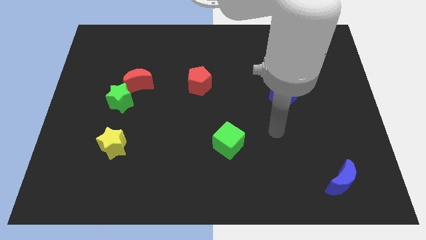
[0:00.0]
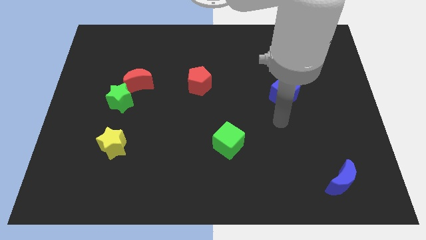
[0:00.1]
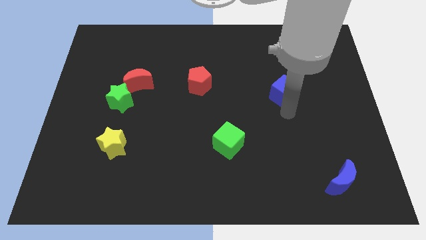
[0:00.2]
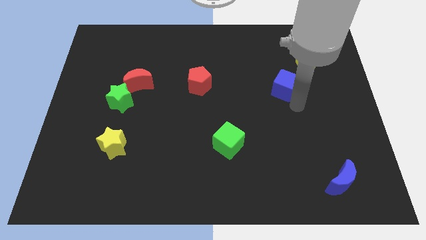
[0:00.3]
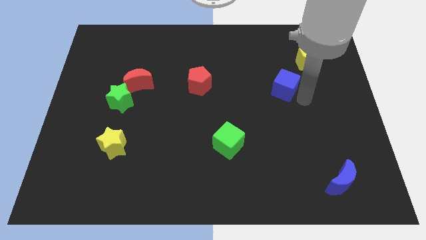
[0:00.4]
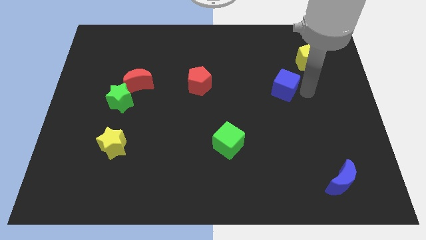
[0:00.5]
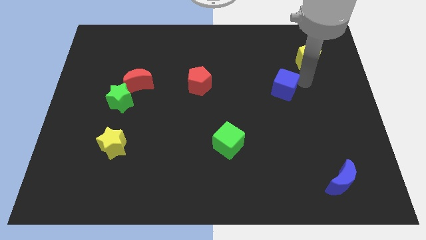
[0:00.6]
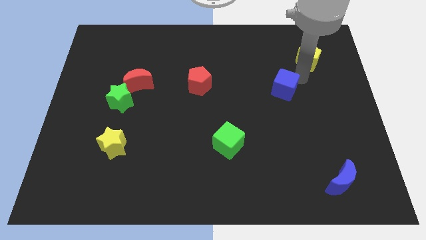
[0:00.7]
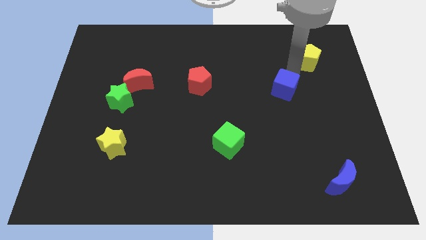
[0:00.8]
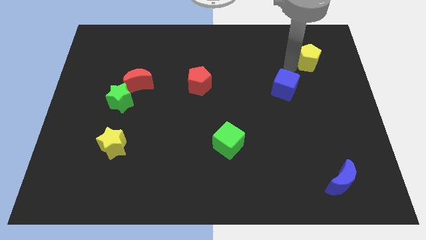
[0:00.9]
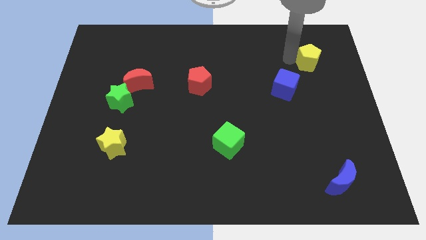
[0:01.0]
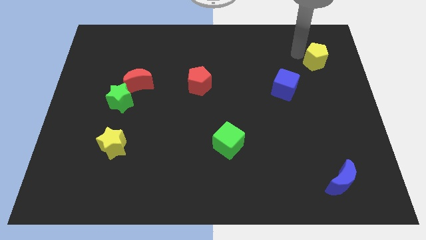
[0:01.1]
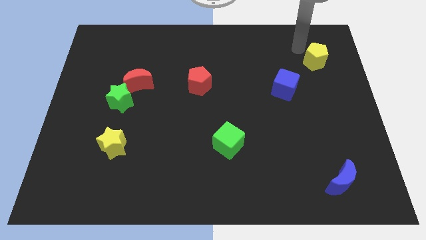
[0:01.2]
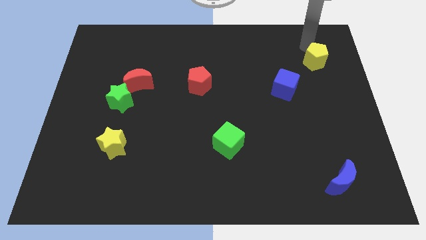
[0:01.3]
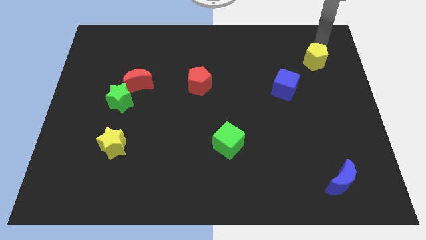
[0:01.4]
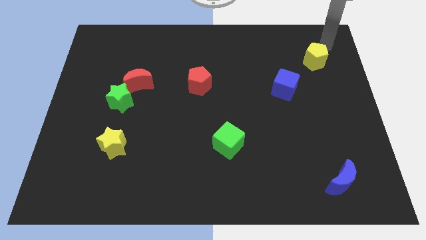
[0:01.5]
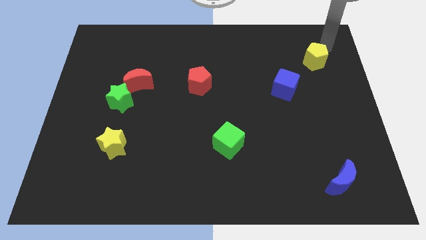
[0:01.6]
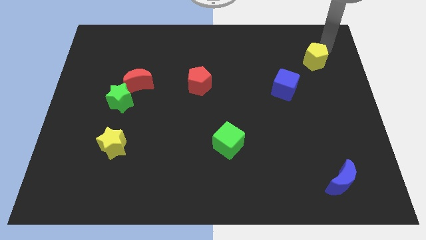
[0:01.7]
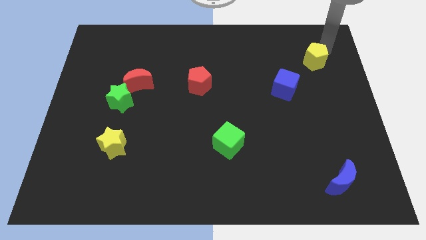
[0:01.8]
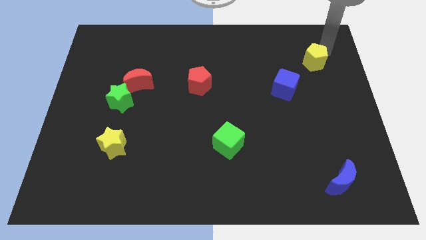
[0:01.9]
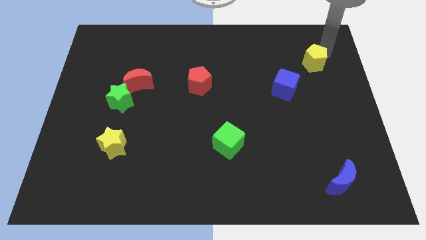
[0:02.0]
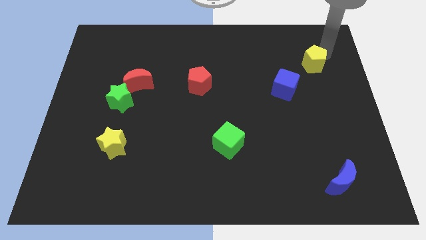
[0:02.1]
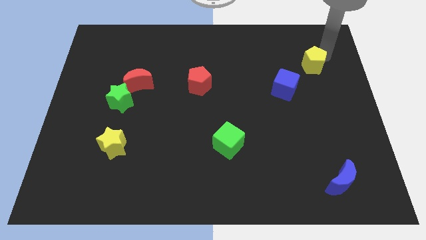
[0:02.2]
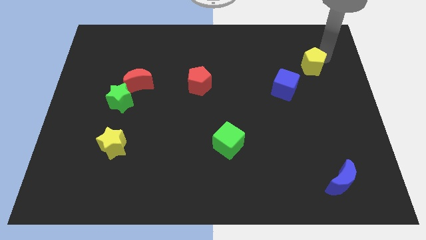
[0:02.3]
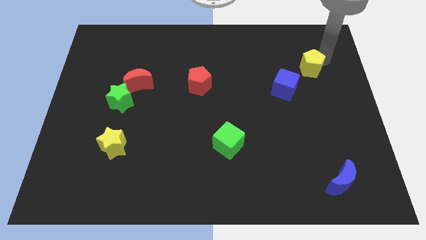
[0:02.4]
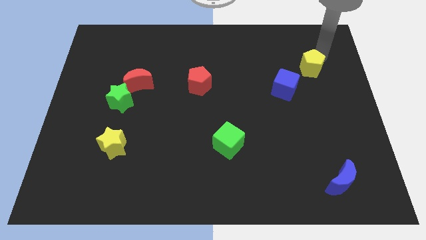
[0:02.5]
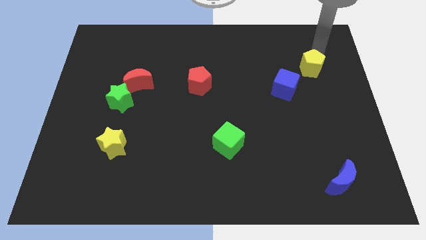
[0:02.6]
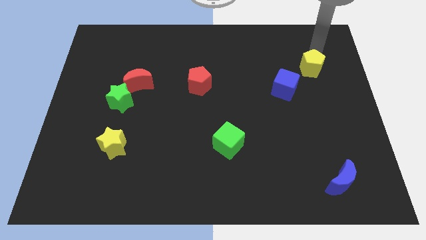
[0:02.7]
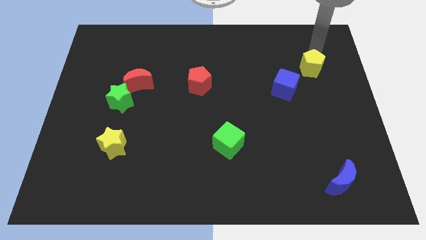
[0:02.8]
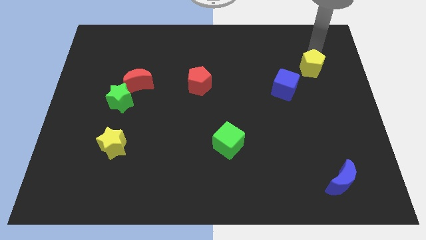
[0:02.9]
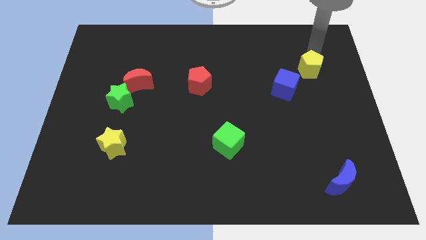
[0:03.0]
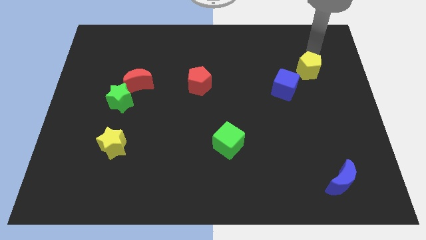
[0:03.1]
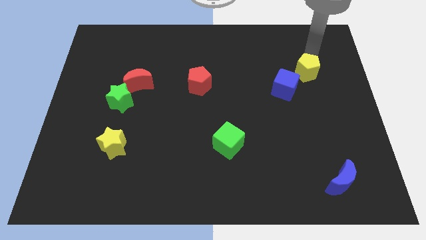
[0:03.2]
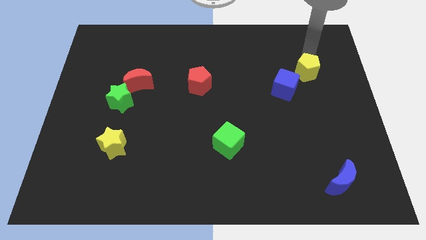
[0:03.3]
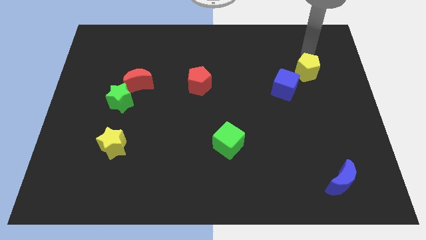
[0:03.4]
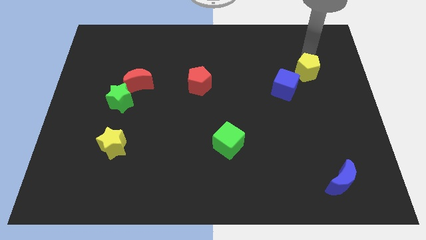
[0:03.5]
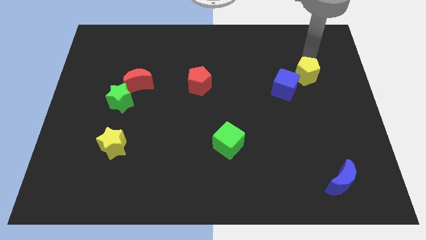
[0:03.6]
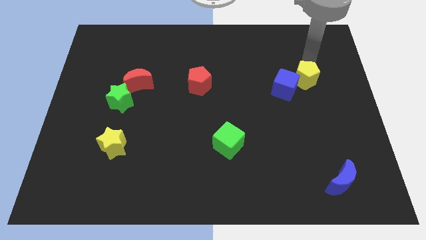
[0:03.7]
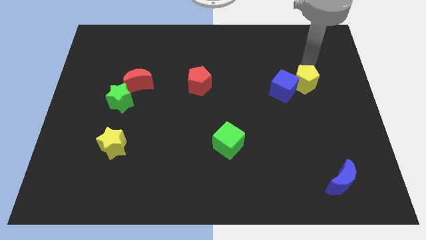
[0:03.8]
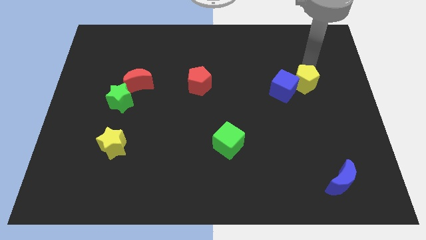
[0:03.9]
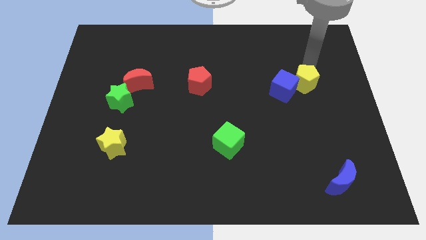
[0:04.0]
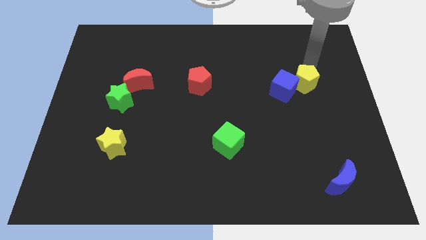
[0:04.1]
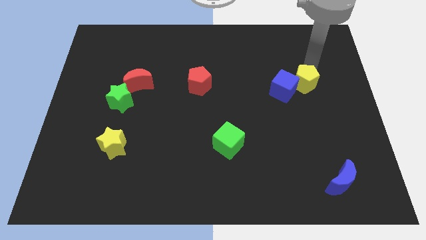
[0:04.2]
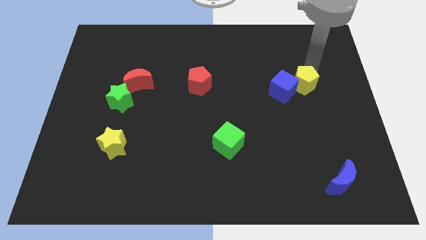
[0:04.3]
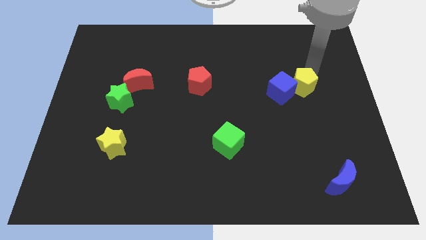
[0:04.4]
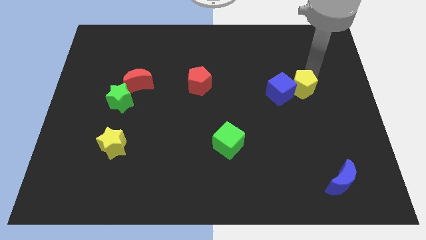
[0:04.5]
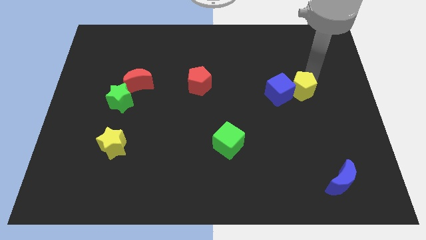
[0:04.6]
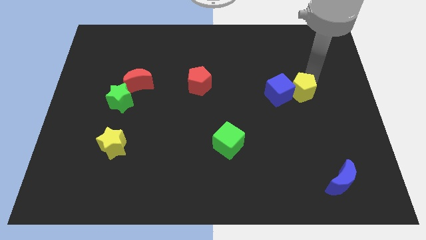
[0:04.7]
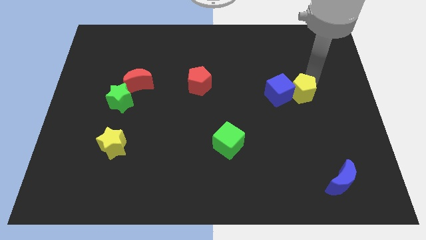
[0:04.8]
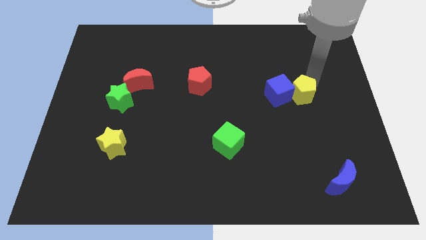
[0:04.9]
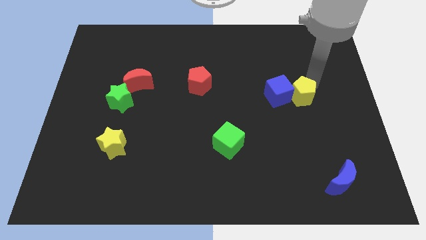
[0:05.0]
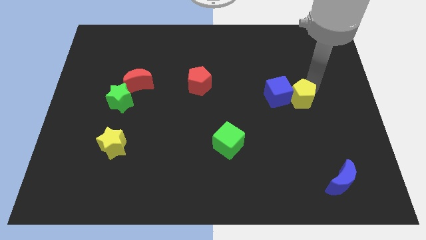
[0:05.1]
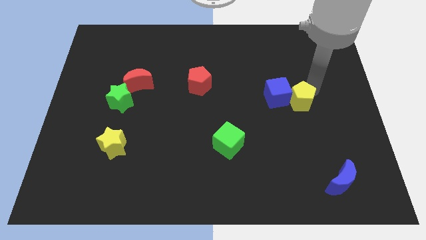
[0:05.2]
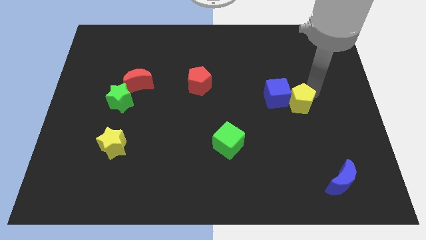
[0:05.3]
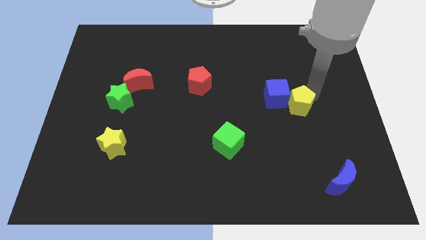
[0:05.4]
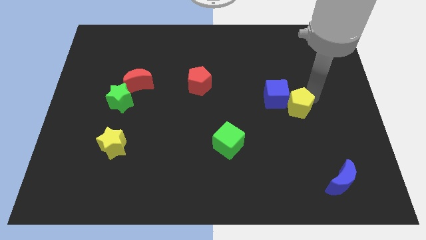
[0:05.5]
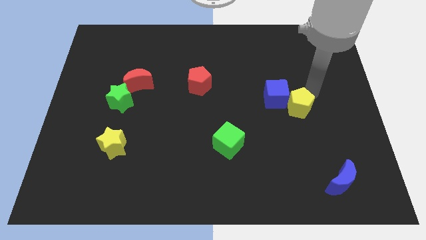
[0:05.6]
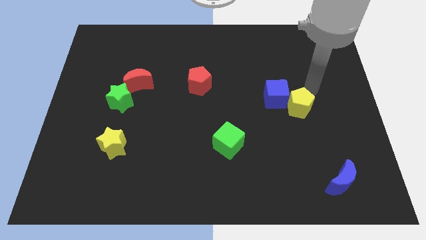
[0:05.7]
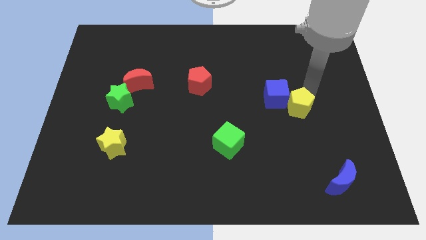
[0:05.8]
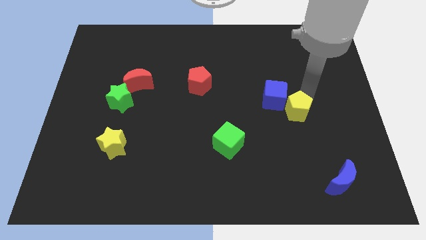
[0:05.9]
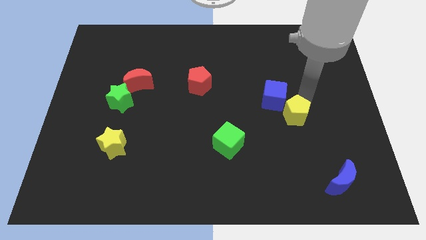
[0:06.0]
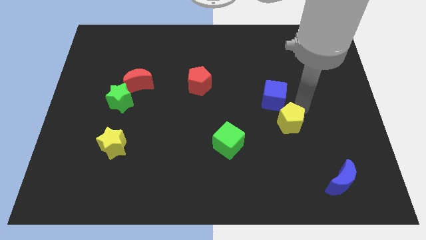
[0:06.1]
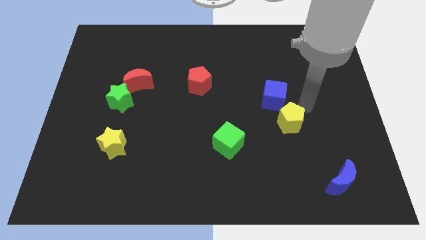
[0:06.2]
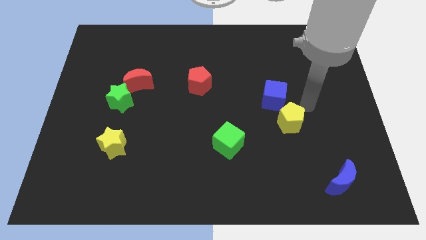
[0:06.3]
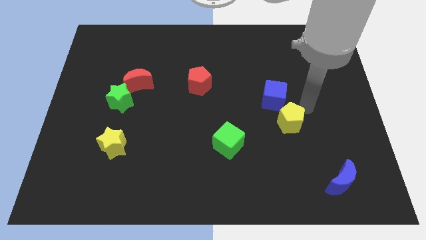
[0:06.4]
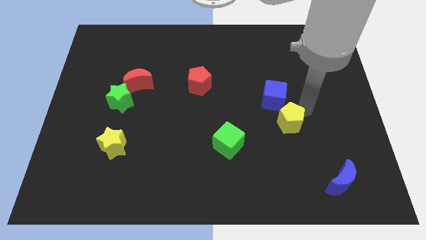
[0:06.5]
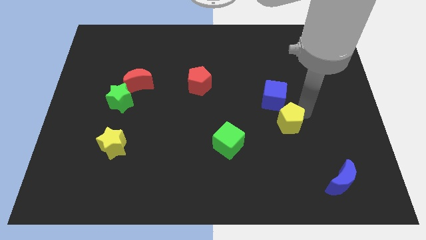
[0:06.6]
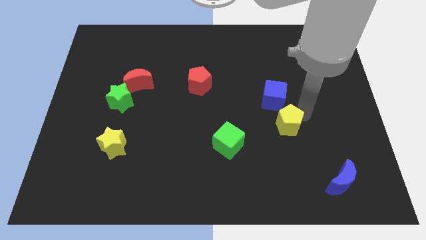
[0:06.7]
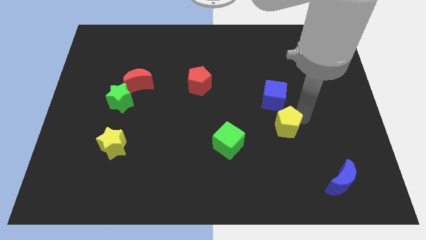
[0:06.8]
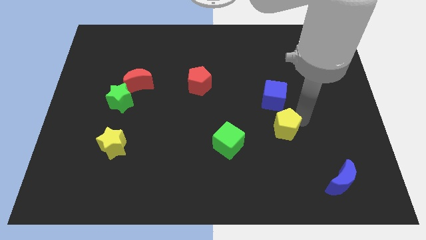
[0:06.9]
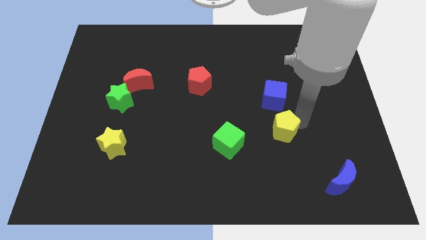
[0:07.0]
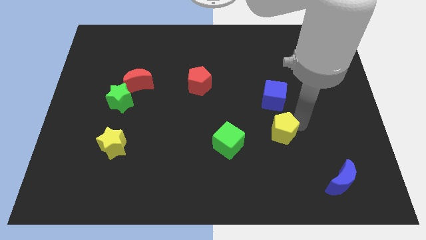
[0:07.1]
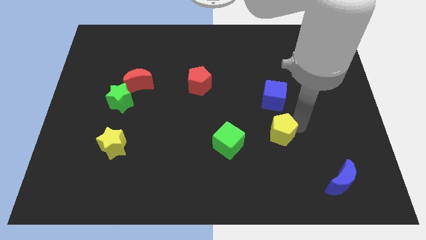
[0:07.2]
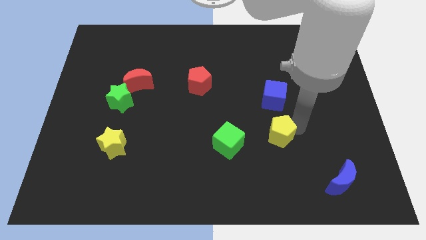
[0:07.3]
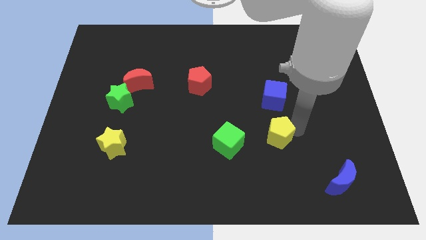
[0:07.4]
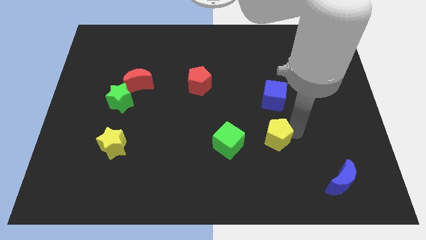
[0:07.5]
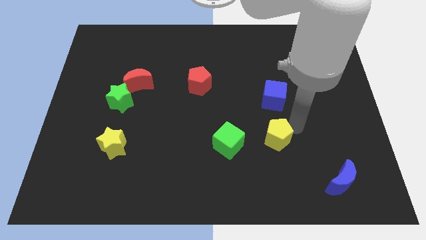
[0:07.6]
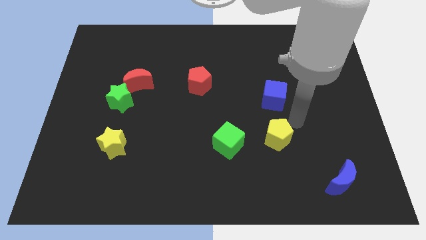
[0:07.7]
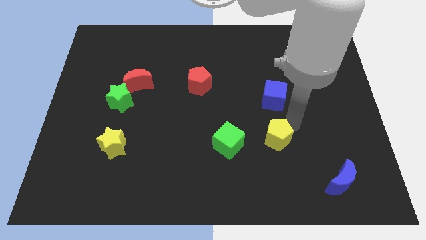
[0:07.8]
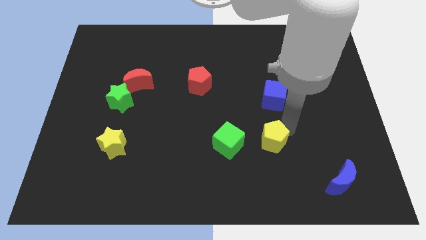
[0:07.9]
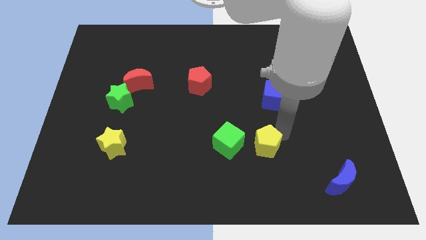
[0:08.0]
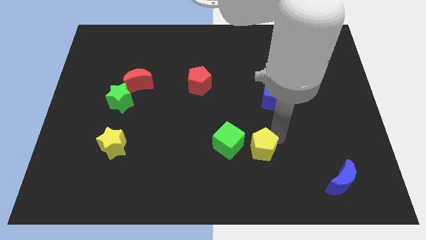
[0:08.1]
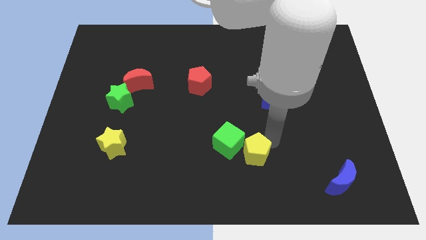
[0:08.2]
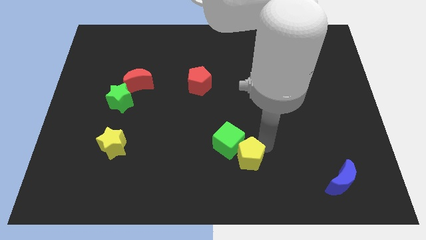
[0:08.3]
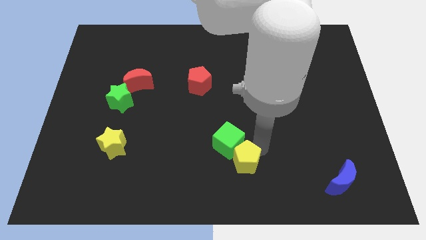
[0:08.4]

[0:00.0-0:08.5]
slide the yellow pentagon to the bottom side
